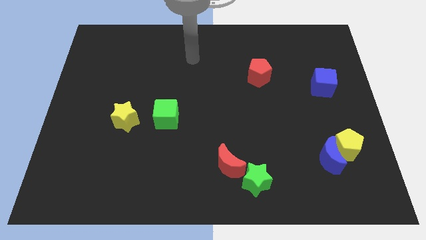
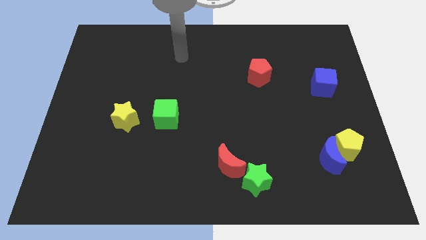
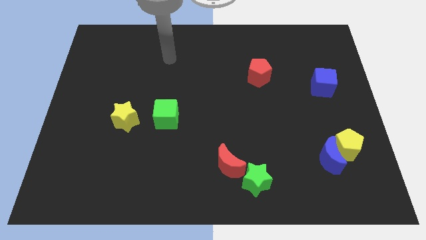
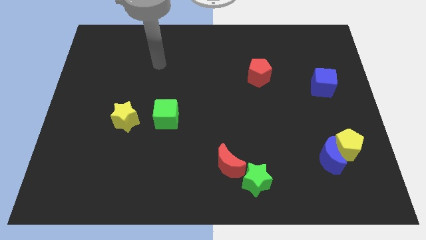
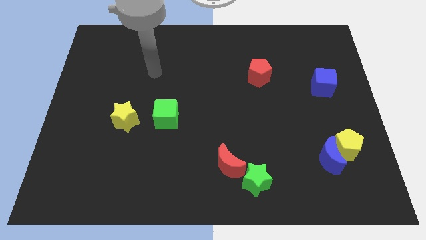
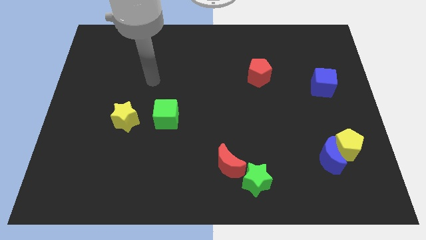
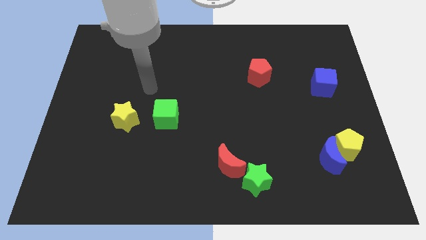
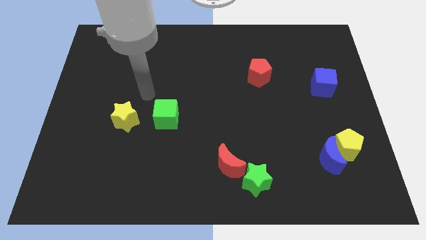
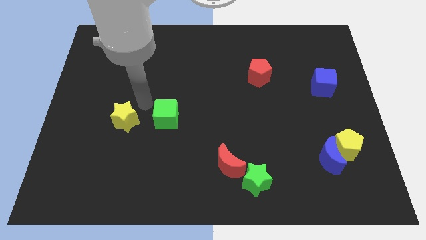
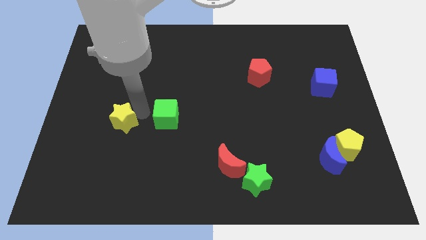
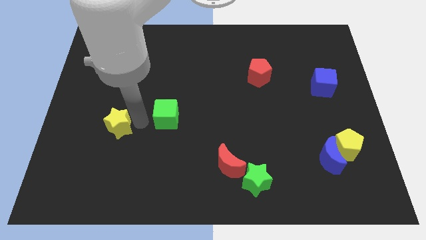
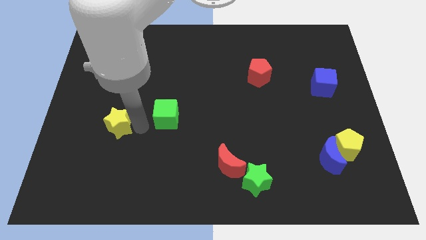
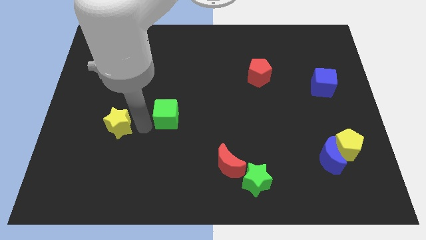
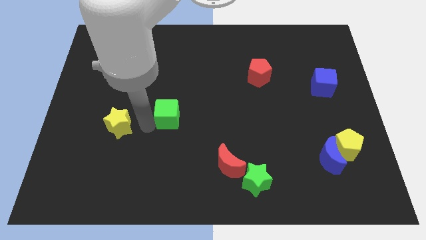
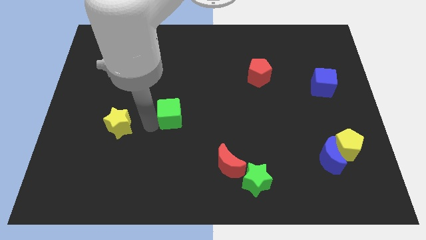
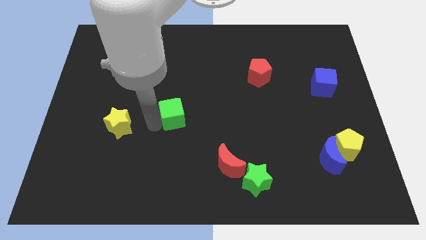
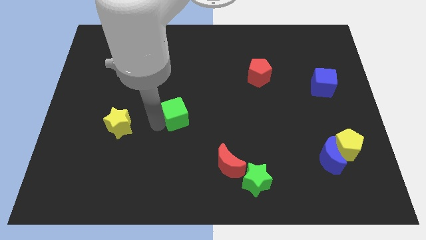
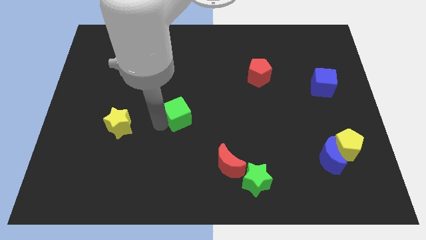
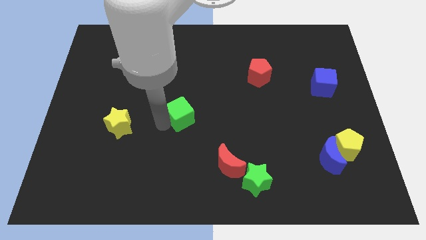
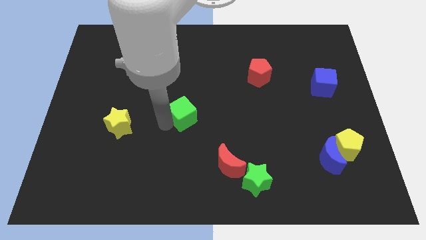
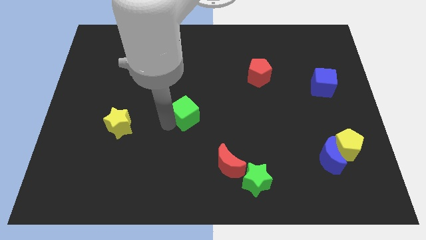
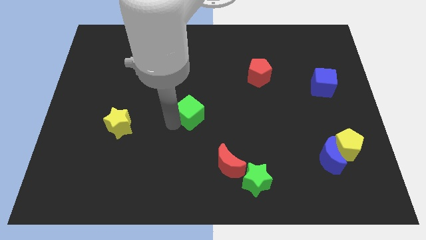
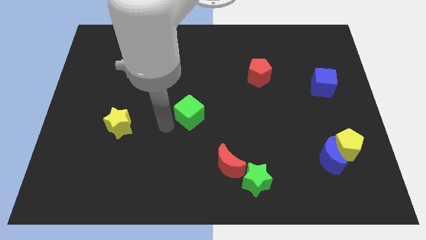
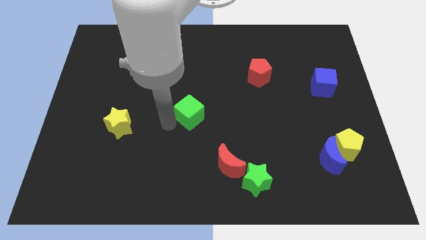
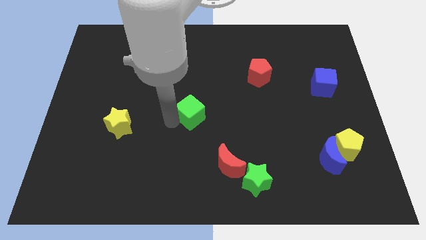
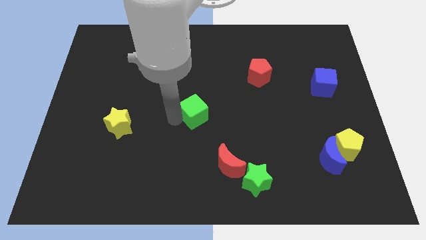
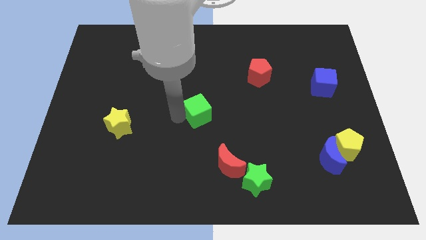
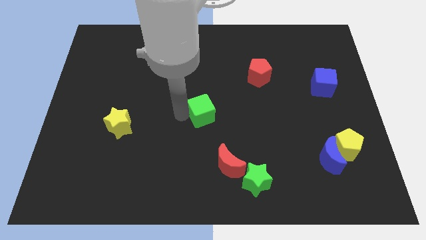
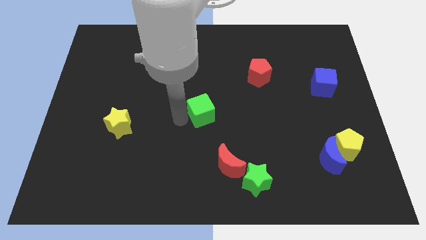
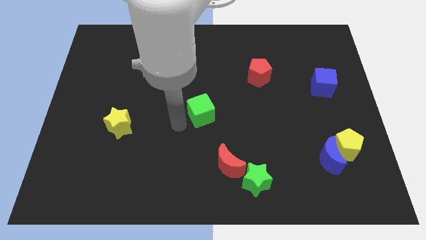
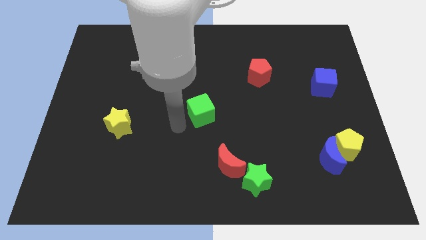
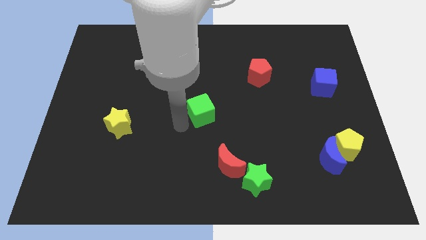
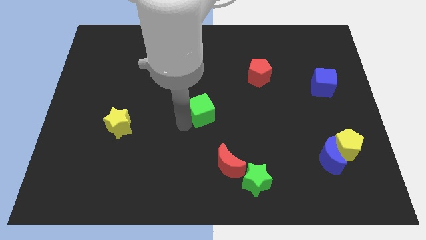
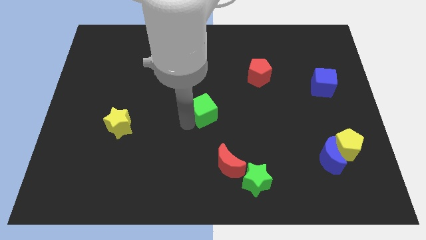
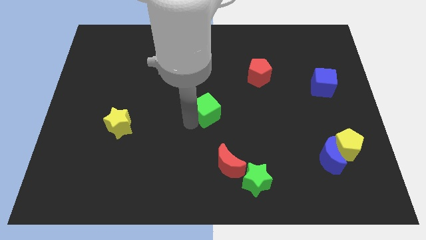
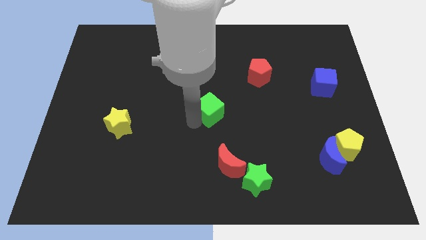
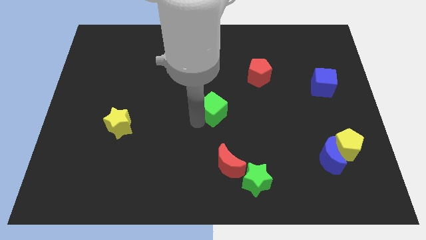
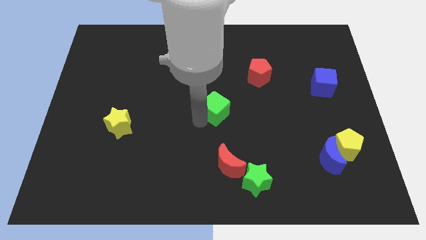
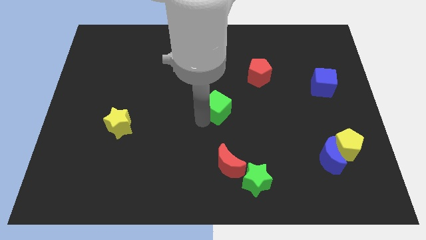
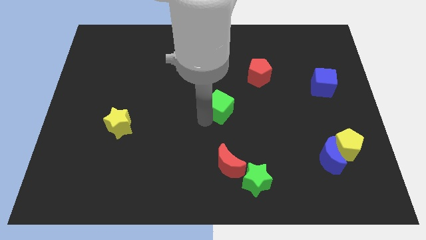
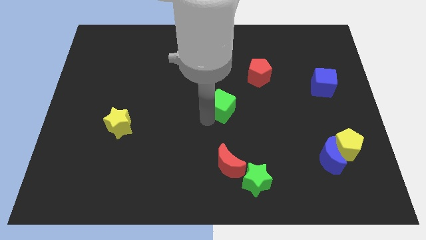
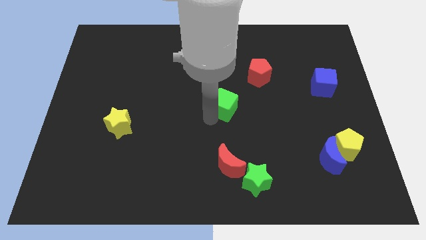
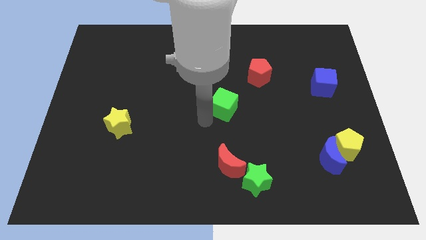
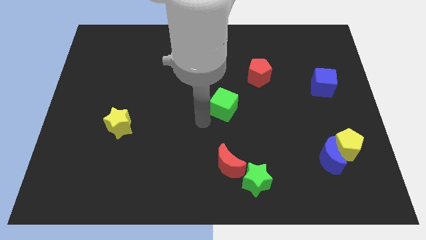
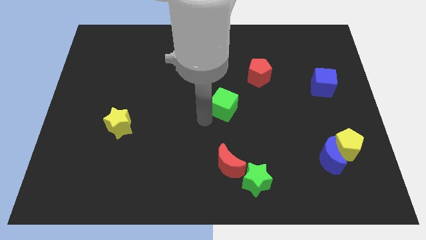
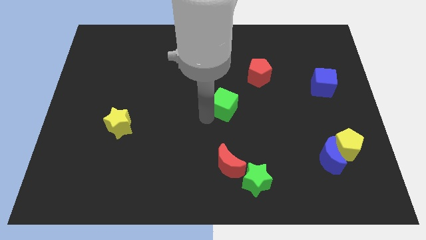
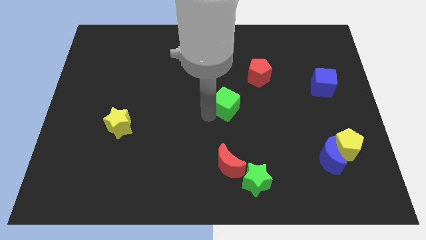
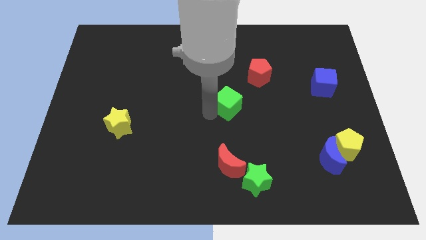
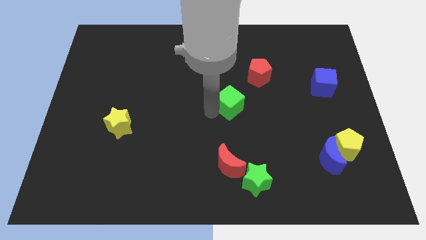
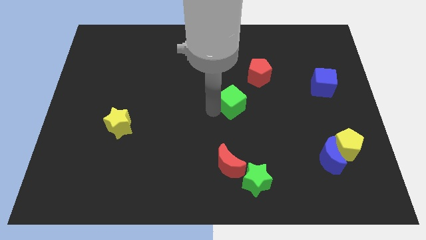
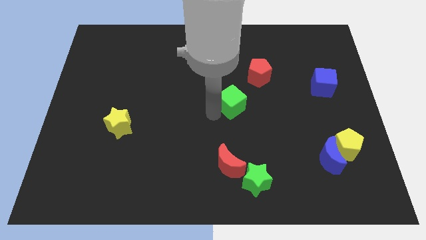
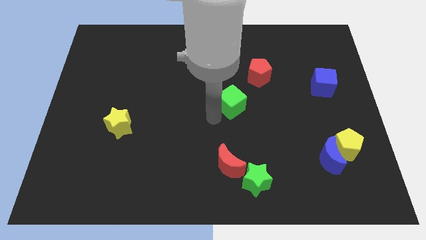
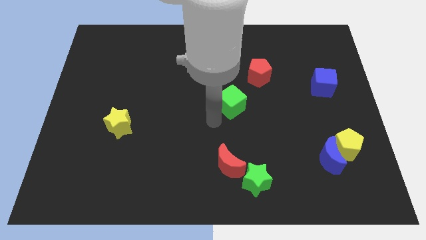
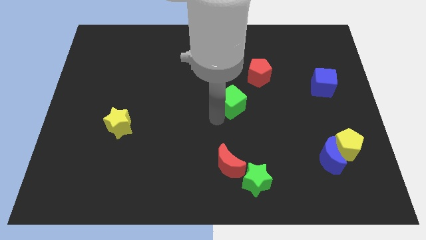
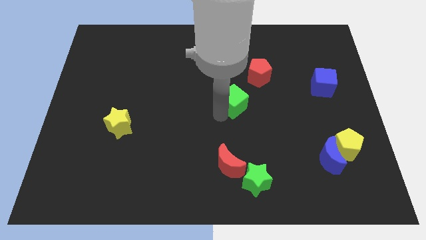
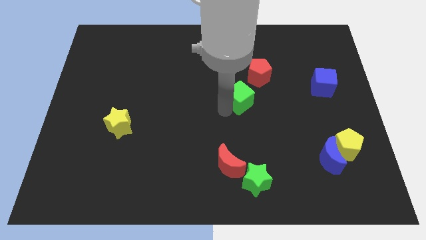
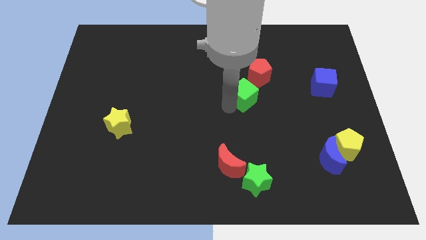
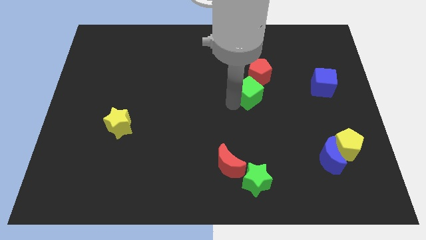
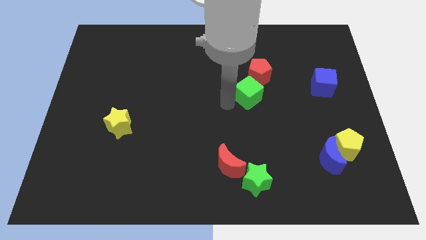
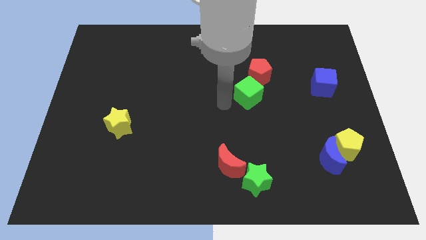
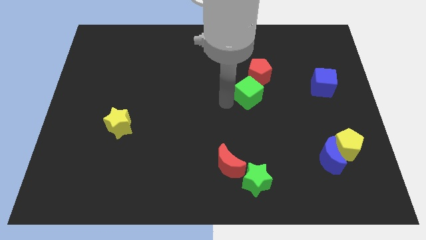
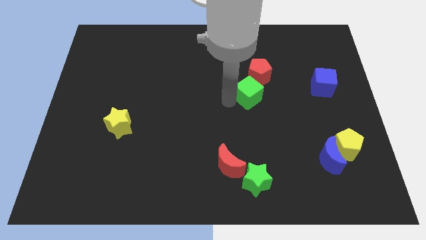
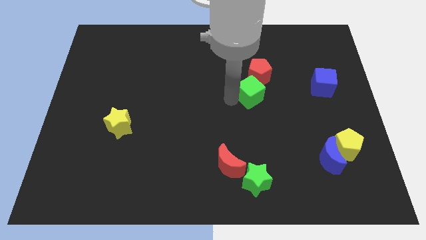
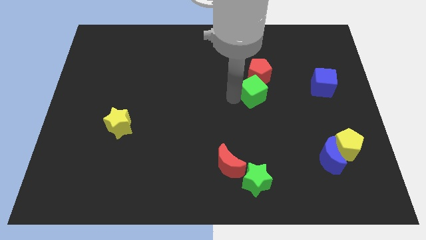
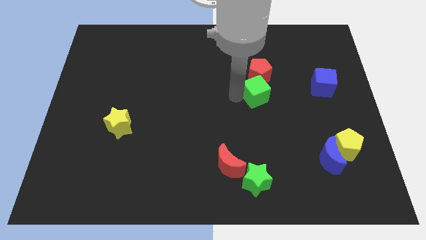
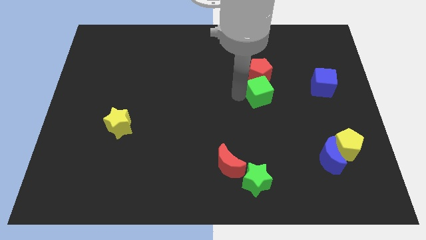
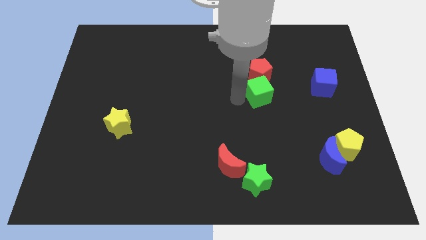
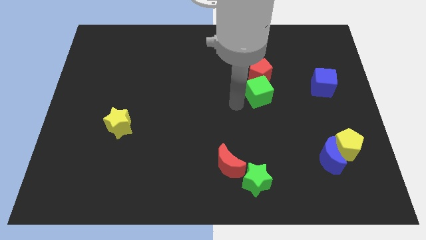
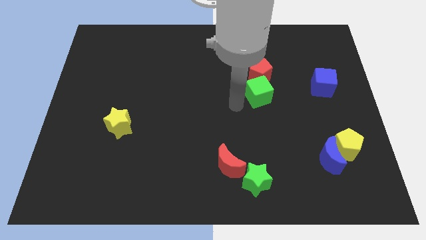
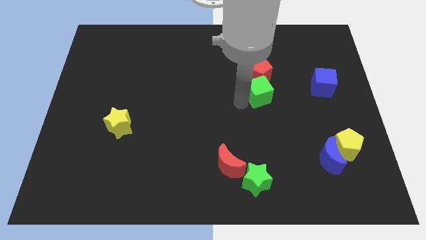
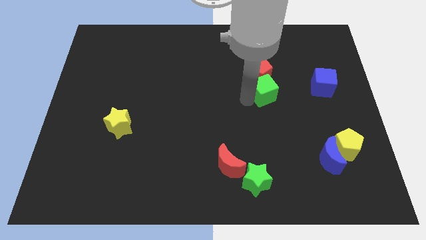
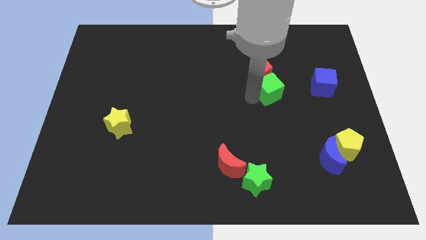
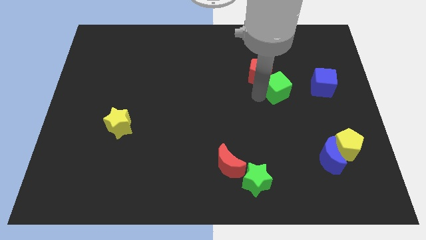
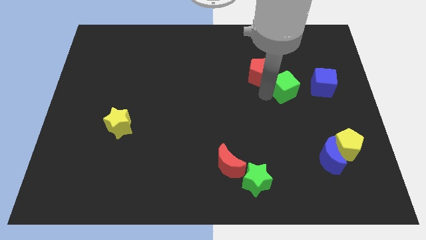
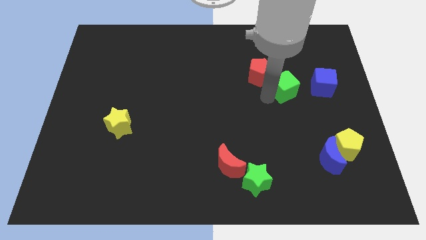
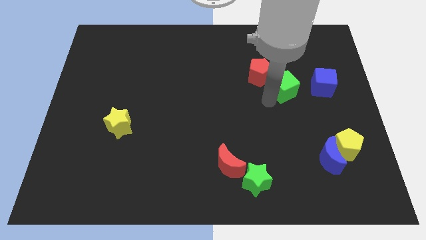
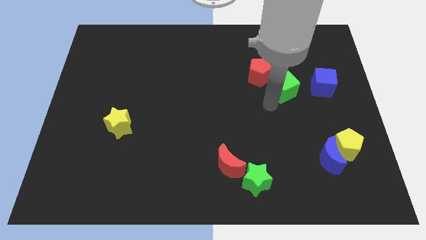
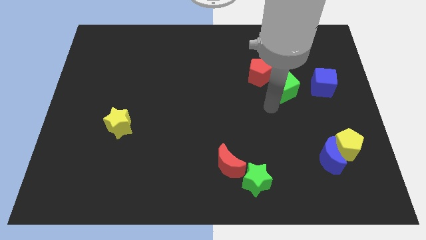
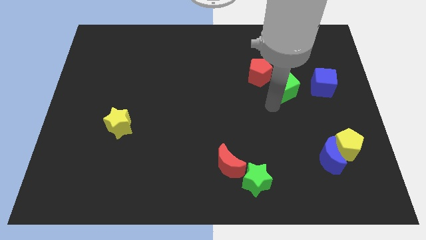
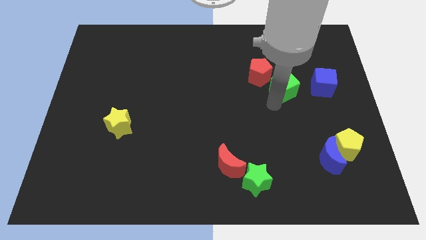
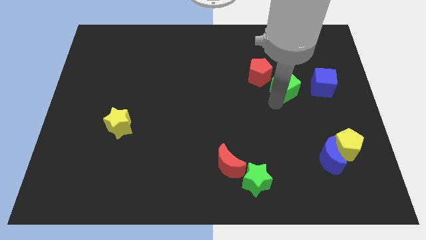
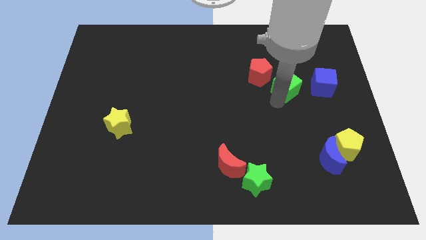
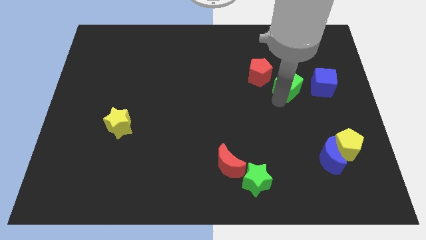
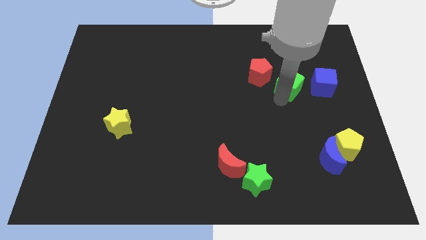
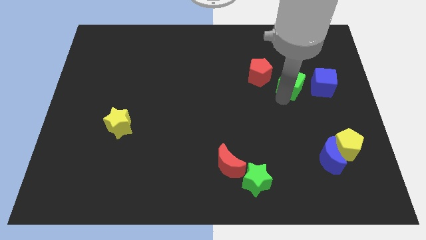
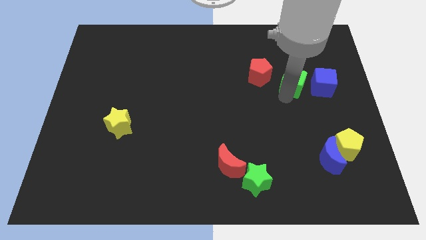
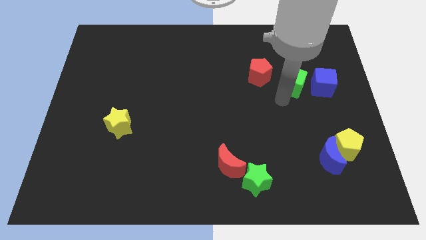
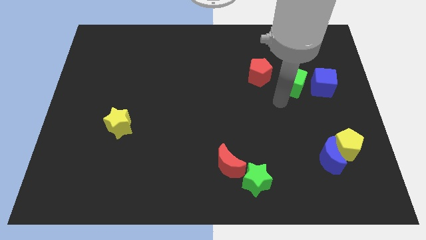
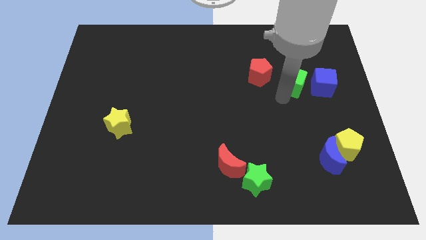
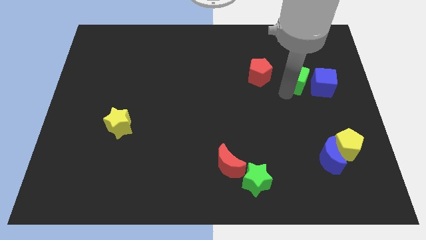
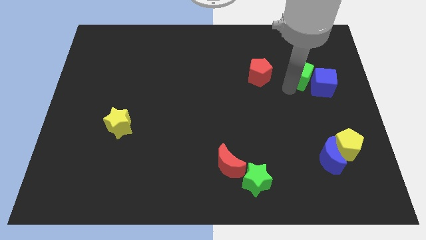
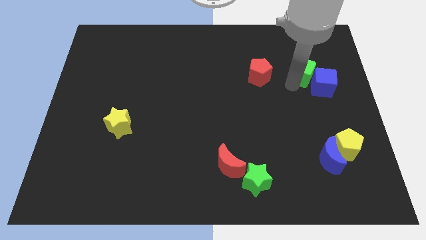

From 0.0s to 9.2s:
slide the green cube to the top side of the blue cube
